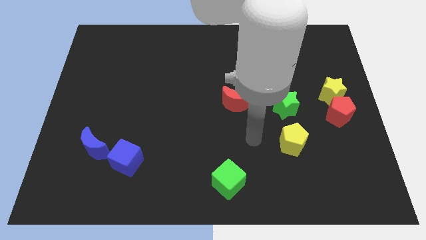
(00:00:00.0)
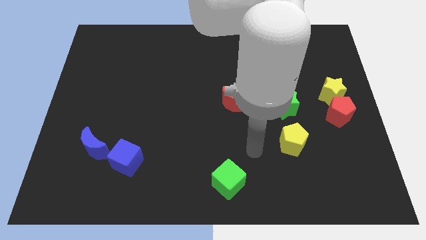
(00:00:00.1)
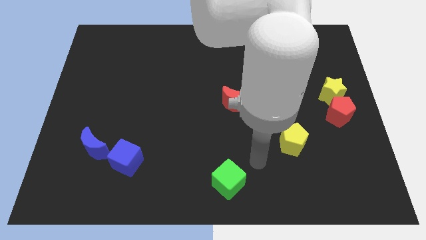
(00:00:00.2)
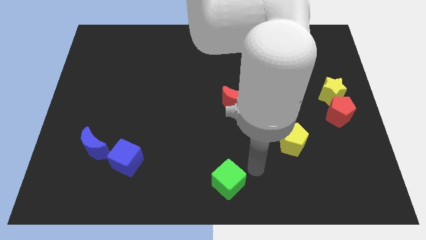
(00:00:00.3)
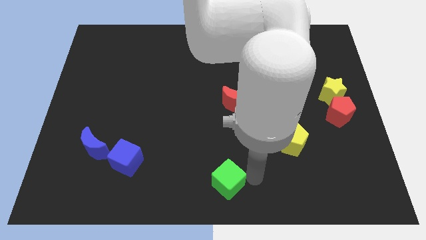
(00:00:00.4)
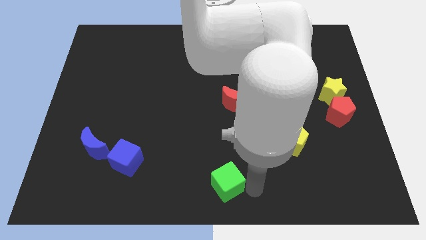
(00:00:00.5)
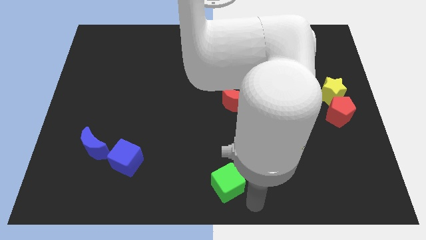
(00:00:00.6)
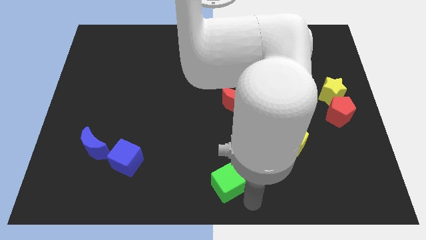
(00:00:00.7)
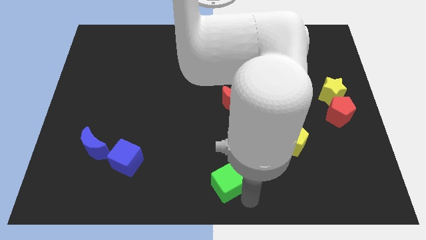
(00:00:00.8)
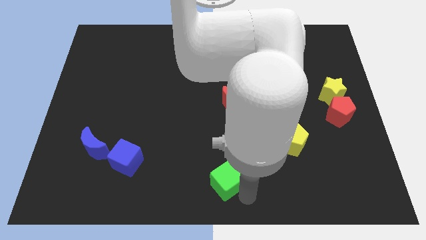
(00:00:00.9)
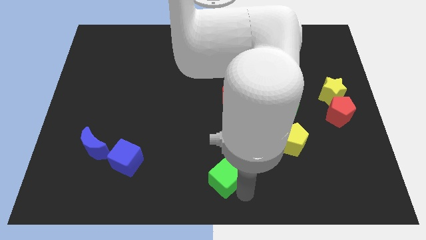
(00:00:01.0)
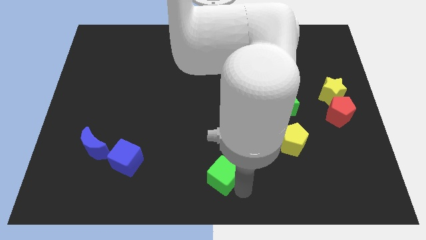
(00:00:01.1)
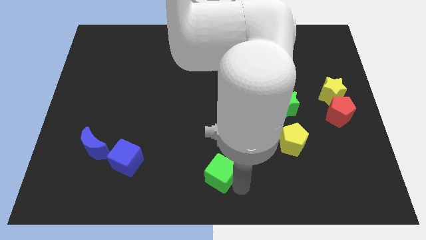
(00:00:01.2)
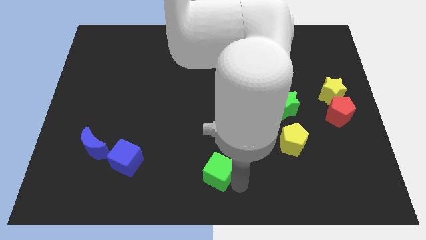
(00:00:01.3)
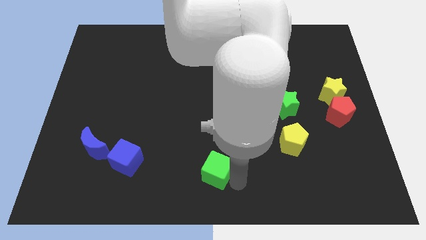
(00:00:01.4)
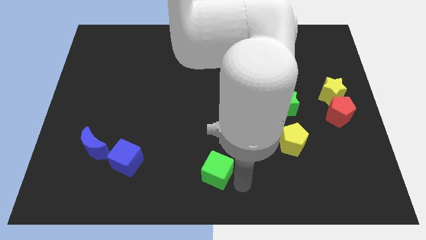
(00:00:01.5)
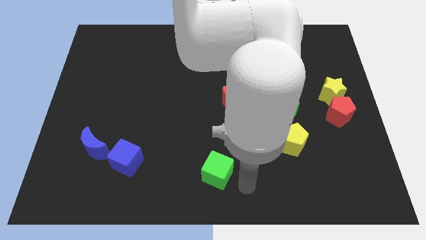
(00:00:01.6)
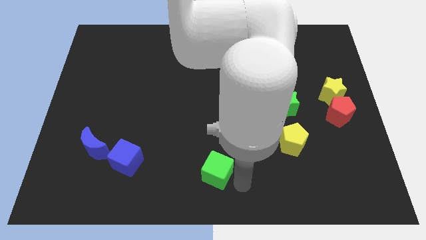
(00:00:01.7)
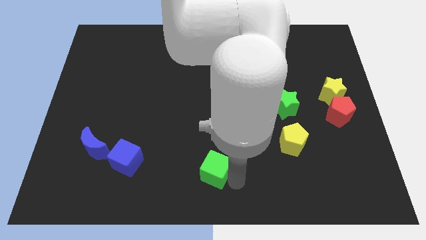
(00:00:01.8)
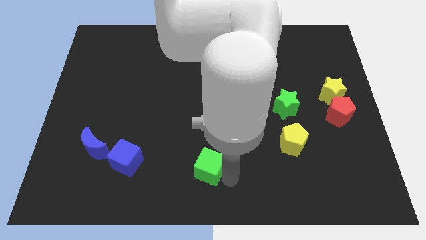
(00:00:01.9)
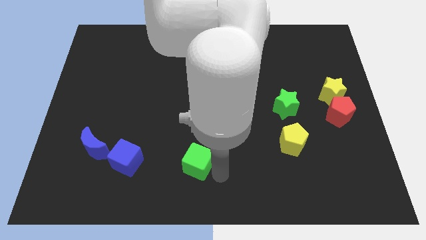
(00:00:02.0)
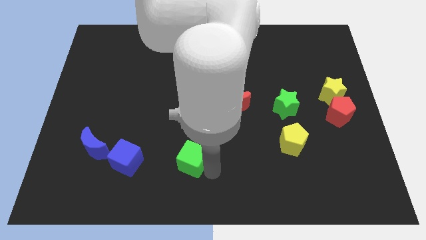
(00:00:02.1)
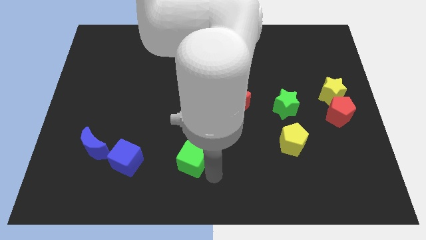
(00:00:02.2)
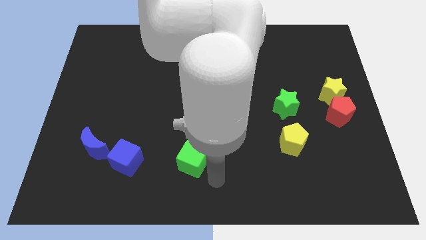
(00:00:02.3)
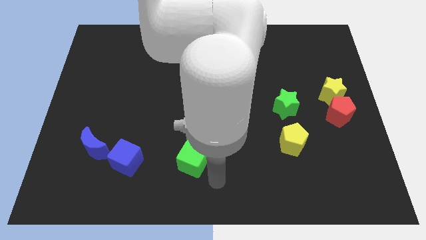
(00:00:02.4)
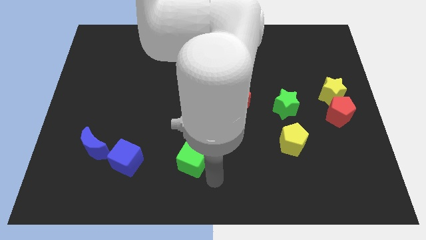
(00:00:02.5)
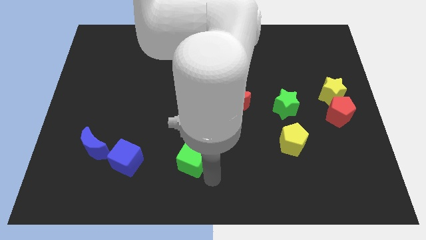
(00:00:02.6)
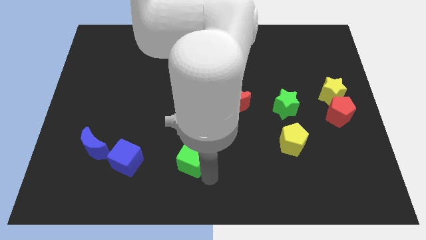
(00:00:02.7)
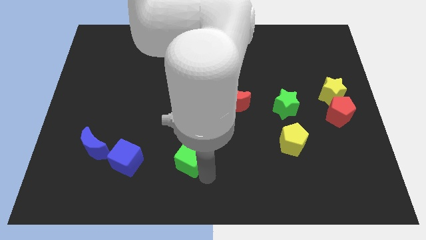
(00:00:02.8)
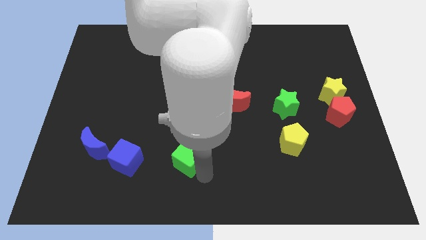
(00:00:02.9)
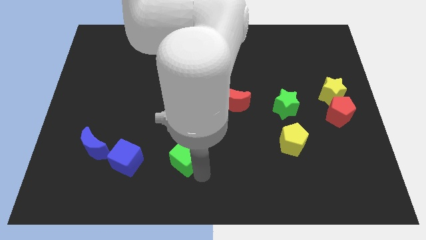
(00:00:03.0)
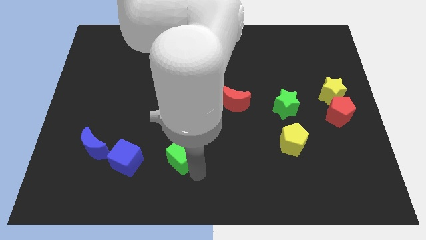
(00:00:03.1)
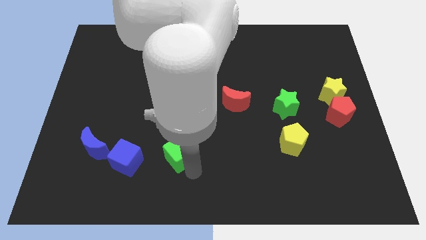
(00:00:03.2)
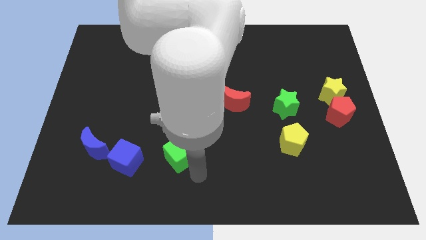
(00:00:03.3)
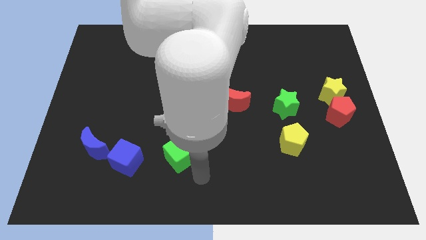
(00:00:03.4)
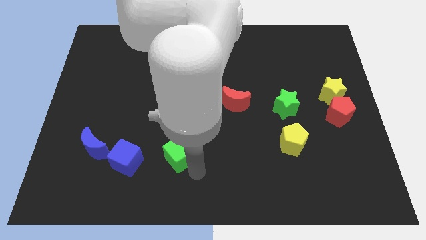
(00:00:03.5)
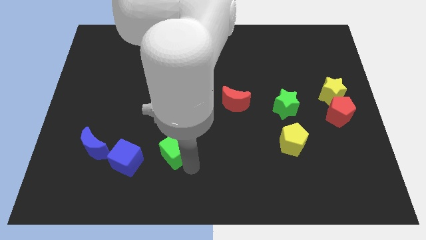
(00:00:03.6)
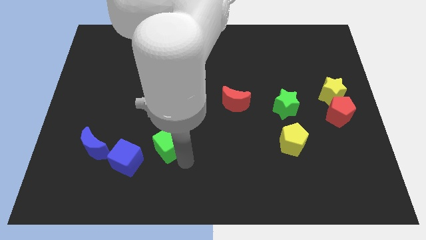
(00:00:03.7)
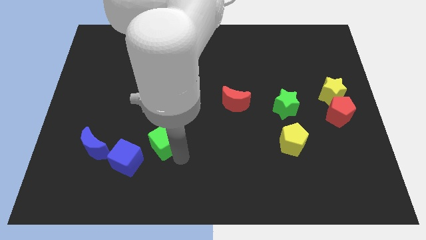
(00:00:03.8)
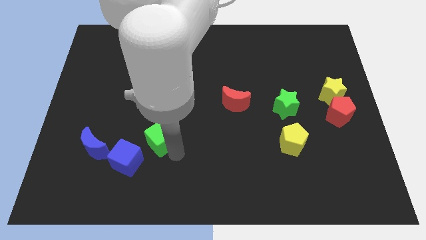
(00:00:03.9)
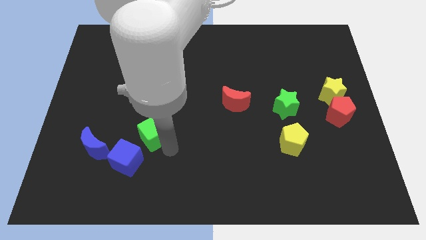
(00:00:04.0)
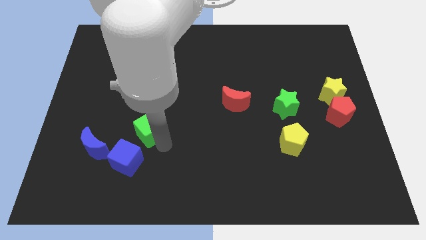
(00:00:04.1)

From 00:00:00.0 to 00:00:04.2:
move the green cube upwards and then left

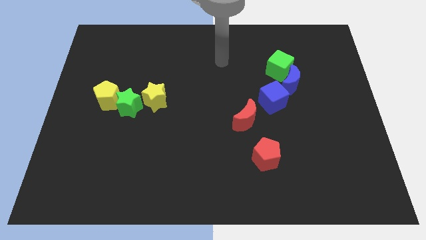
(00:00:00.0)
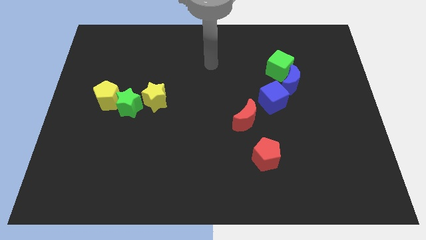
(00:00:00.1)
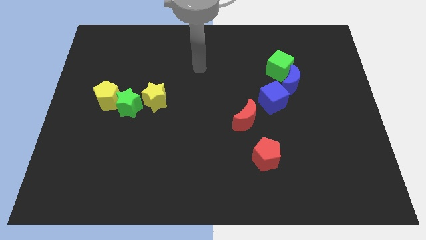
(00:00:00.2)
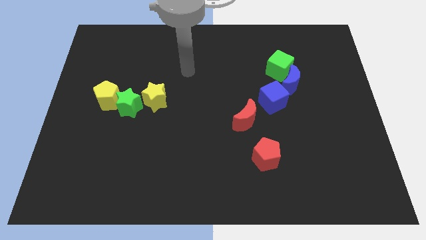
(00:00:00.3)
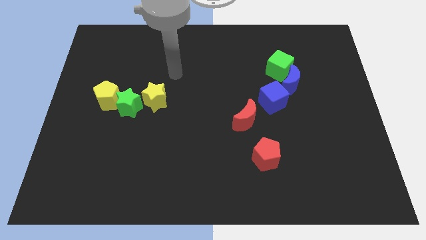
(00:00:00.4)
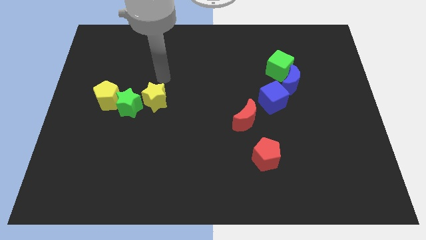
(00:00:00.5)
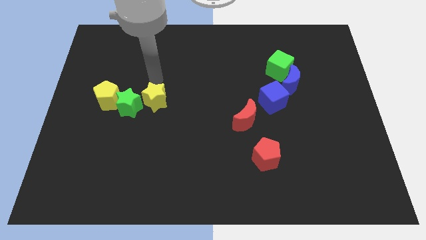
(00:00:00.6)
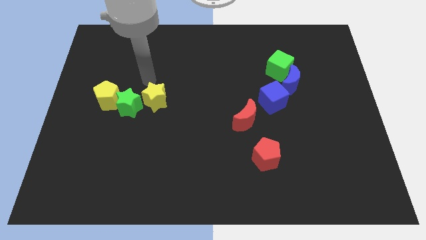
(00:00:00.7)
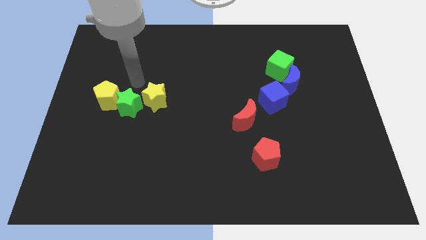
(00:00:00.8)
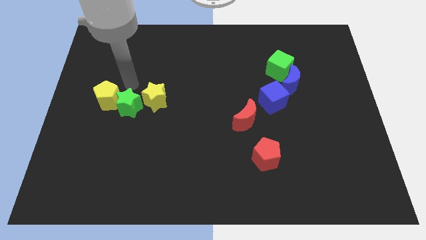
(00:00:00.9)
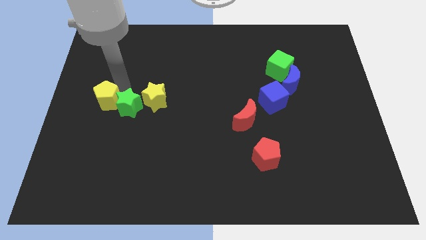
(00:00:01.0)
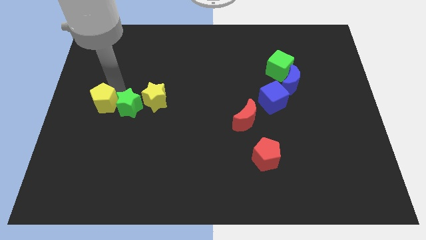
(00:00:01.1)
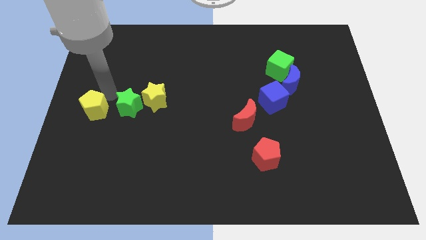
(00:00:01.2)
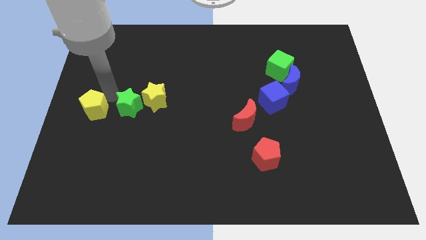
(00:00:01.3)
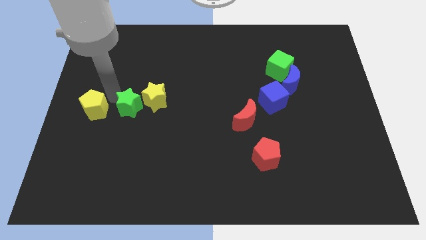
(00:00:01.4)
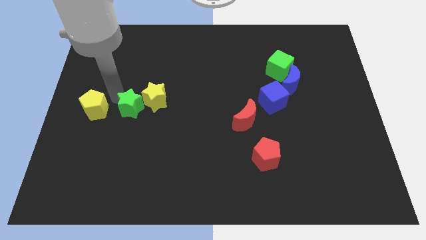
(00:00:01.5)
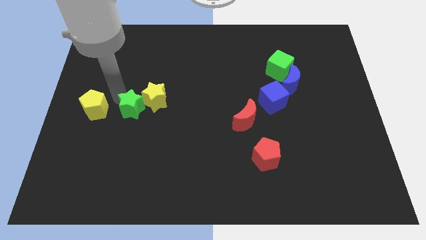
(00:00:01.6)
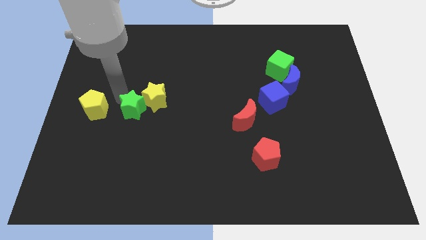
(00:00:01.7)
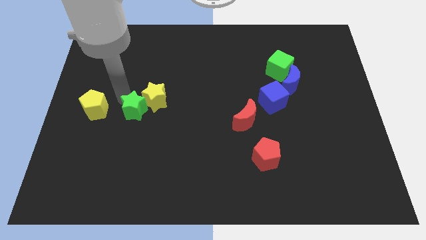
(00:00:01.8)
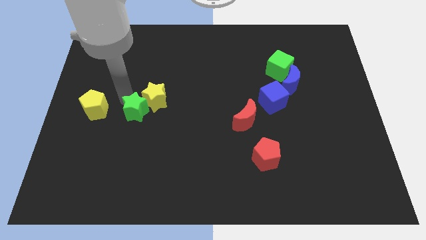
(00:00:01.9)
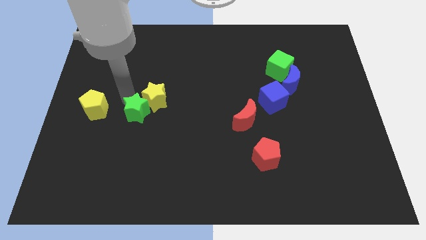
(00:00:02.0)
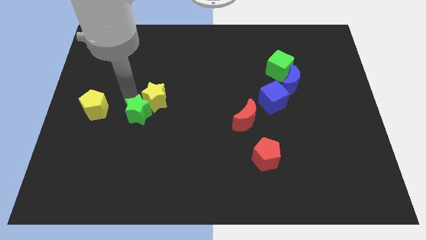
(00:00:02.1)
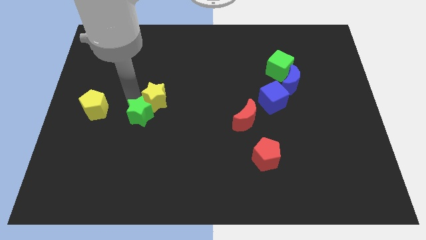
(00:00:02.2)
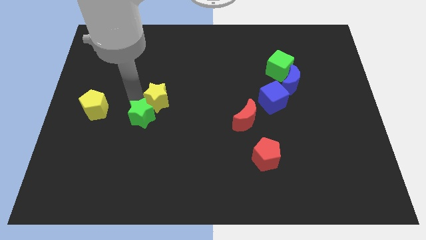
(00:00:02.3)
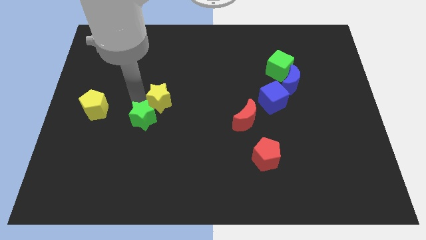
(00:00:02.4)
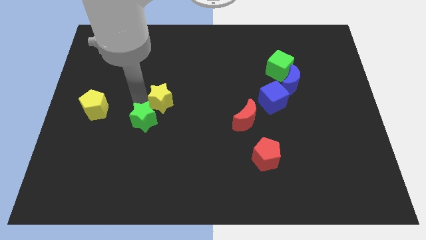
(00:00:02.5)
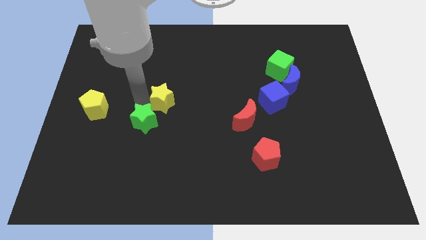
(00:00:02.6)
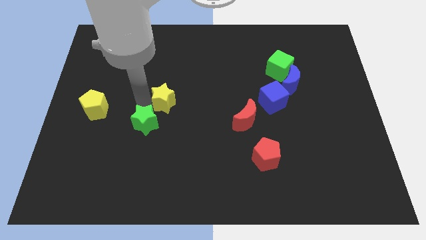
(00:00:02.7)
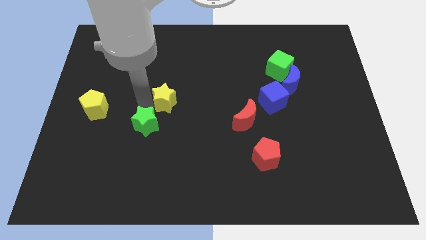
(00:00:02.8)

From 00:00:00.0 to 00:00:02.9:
move the green star a bit down and then to the right
